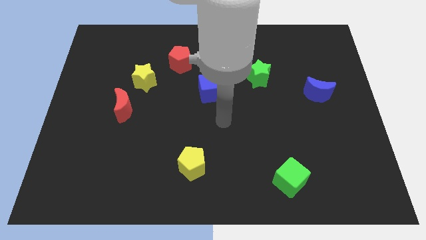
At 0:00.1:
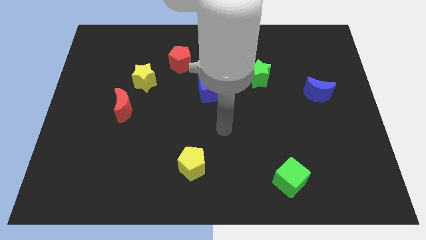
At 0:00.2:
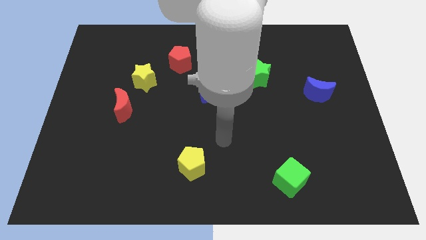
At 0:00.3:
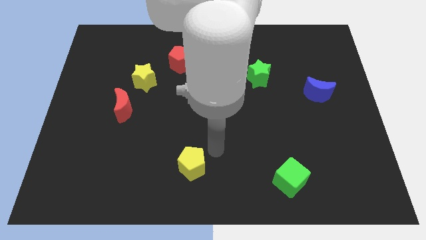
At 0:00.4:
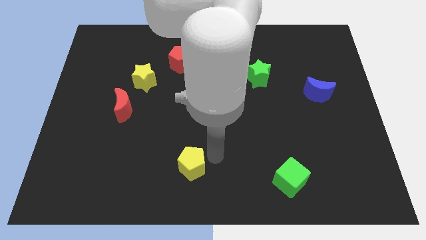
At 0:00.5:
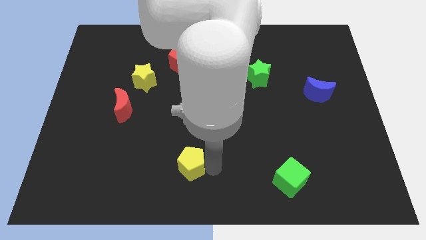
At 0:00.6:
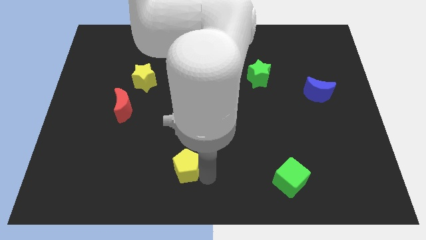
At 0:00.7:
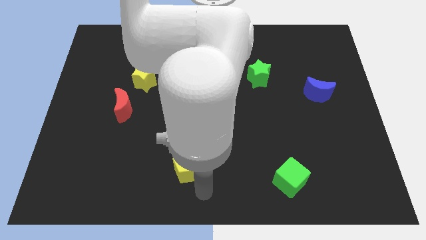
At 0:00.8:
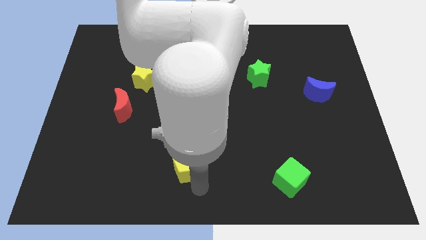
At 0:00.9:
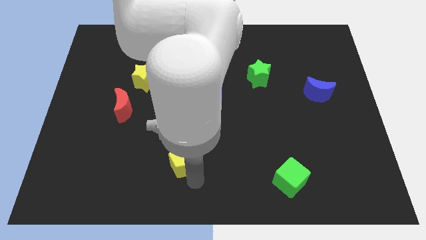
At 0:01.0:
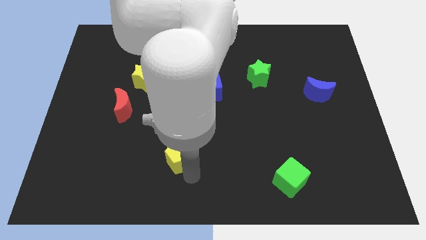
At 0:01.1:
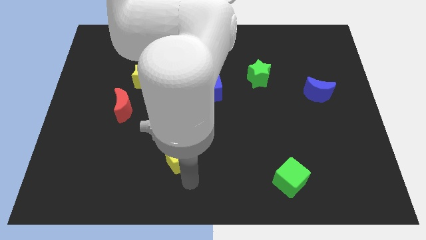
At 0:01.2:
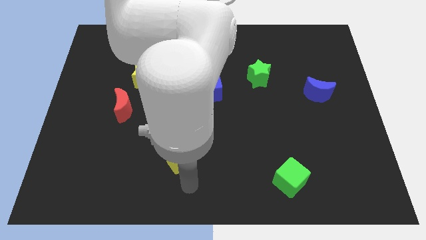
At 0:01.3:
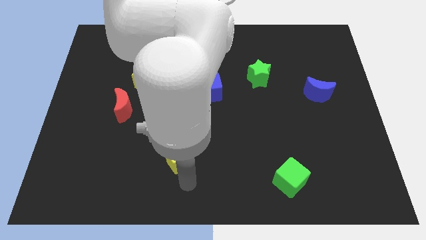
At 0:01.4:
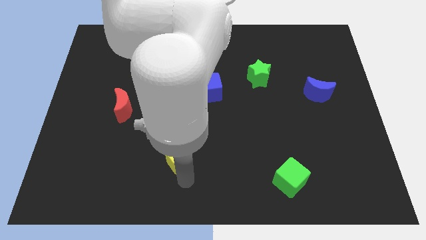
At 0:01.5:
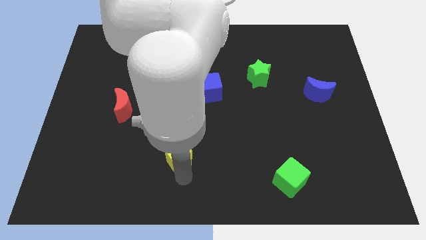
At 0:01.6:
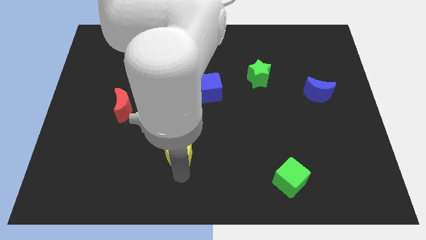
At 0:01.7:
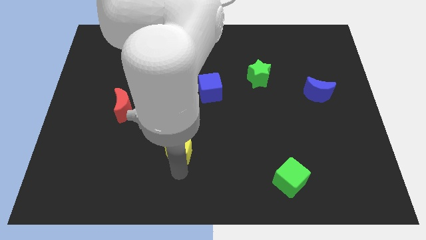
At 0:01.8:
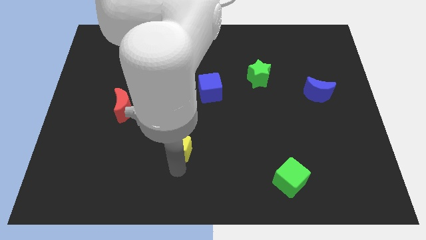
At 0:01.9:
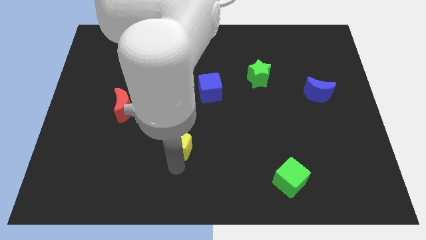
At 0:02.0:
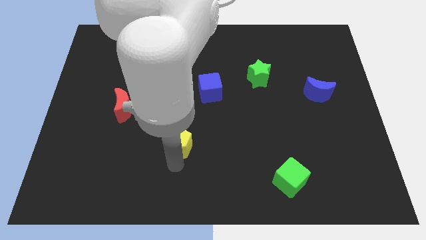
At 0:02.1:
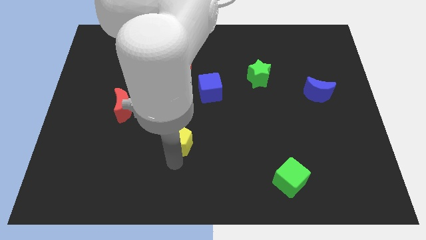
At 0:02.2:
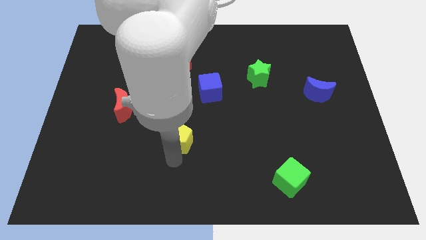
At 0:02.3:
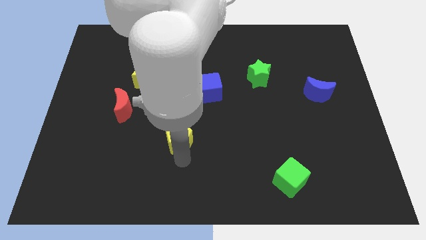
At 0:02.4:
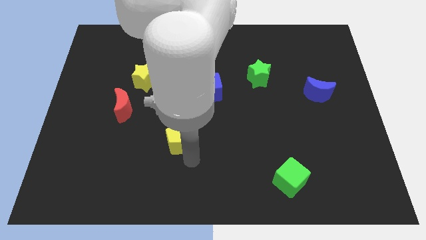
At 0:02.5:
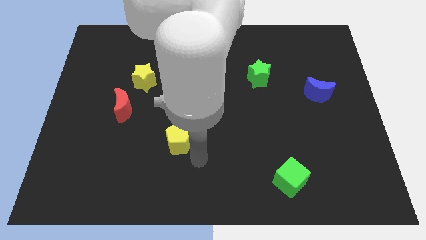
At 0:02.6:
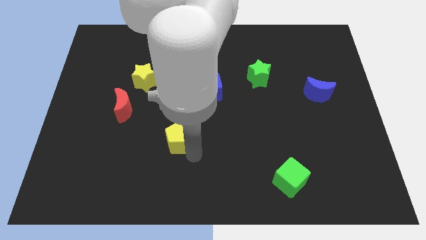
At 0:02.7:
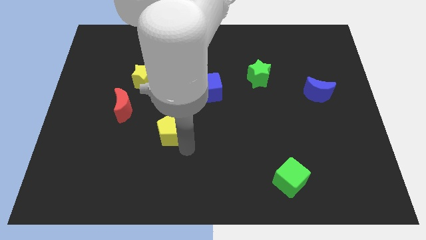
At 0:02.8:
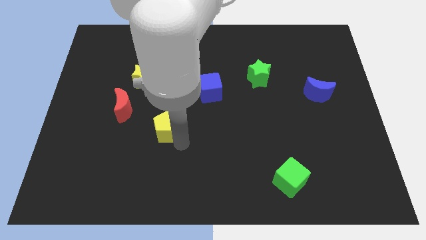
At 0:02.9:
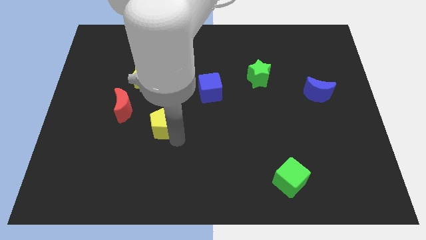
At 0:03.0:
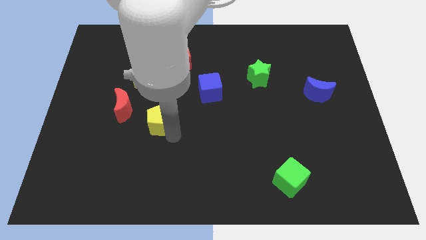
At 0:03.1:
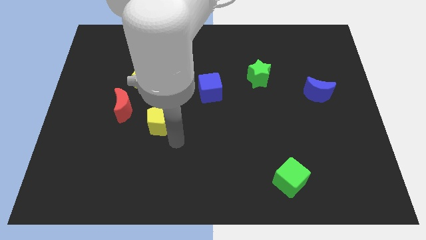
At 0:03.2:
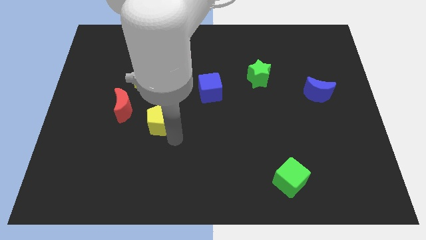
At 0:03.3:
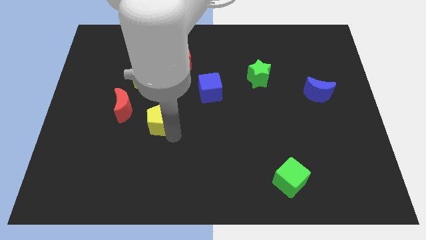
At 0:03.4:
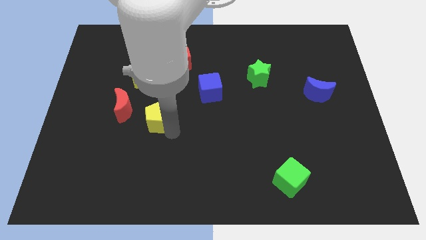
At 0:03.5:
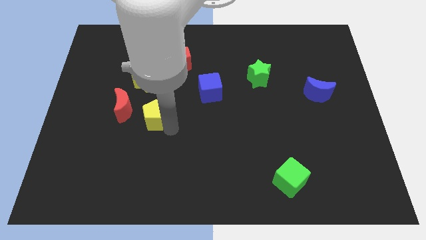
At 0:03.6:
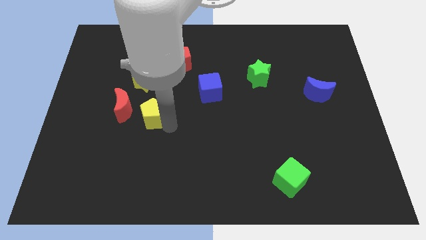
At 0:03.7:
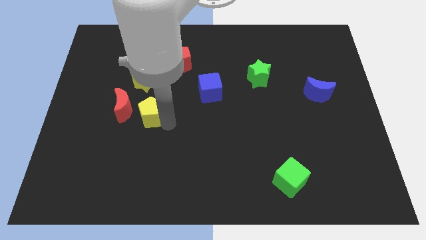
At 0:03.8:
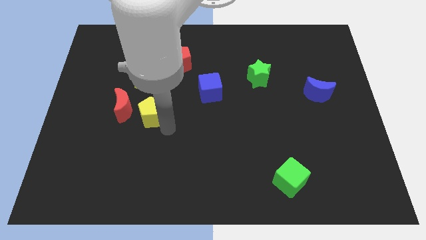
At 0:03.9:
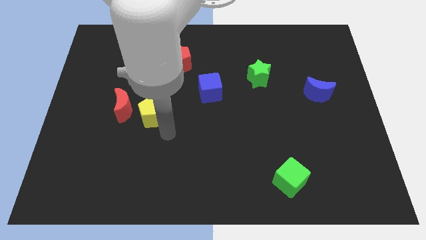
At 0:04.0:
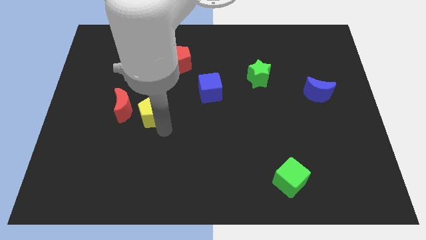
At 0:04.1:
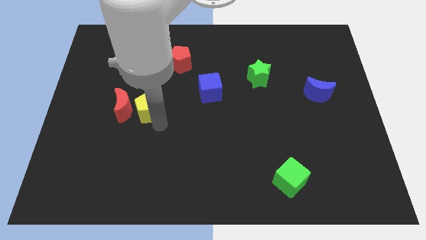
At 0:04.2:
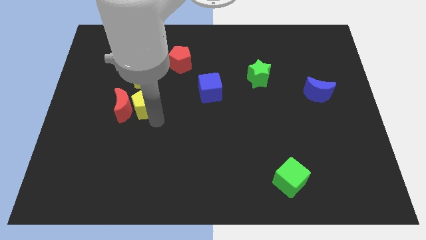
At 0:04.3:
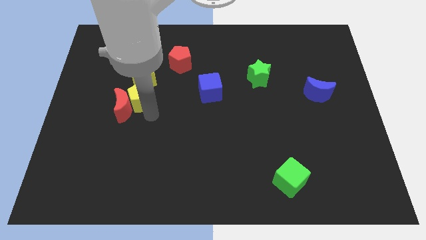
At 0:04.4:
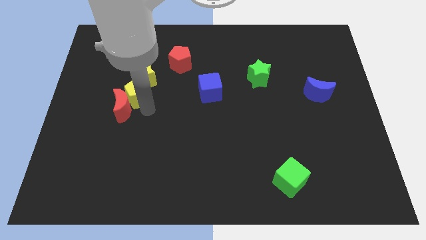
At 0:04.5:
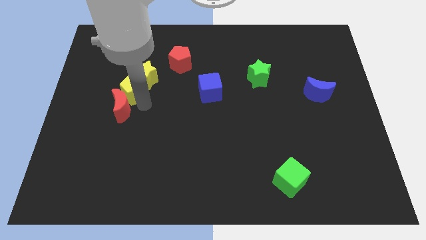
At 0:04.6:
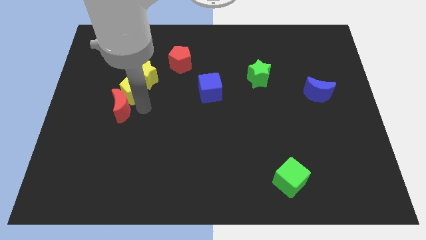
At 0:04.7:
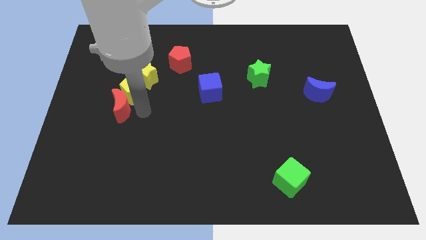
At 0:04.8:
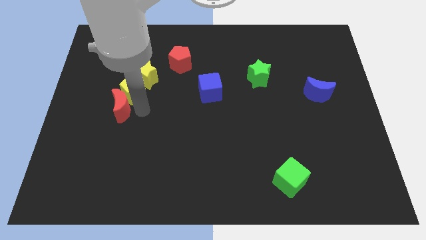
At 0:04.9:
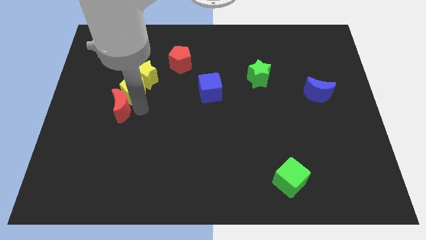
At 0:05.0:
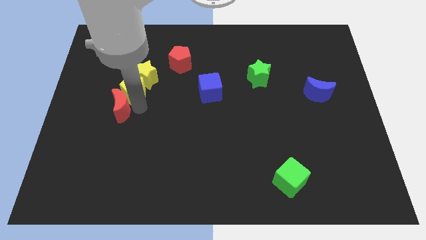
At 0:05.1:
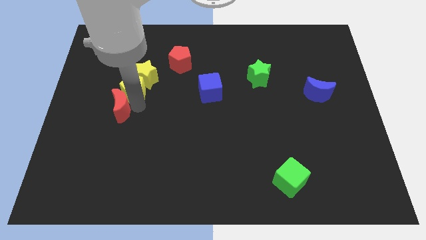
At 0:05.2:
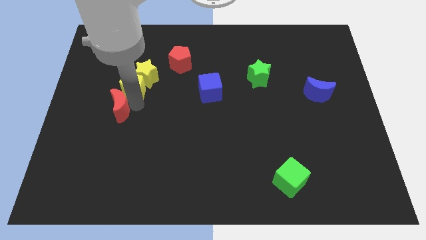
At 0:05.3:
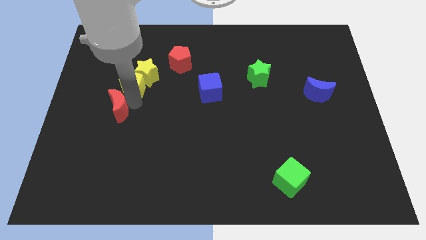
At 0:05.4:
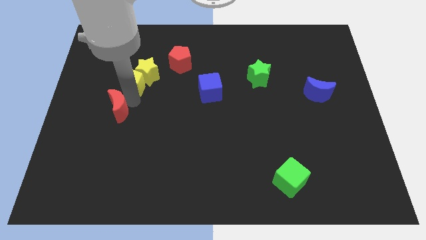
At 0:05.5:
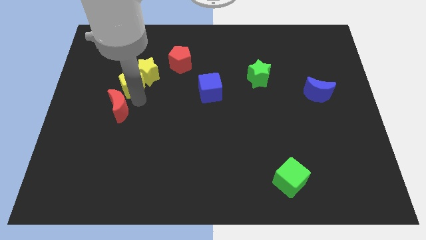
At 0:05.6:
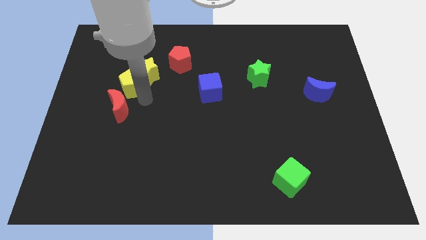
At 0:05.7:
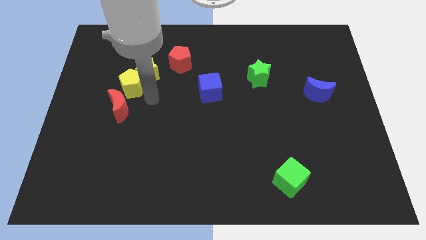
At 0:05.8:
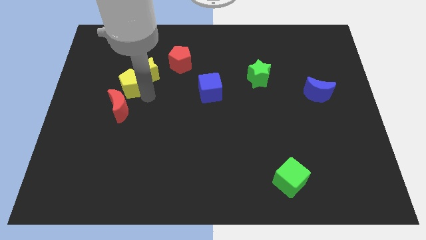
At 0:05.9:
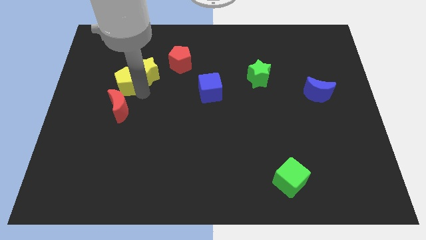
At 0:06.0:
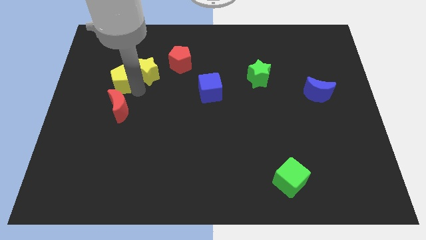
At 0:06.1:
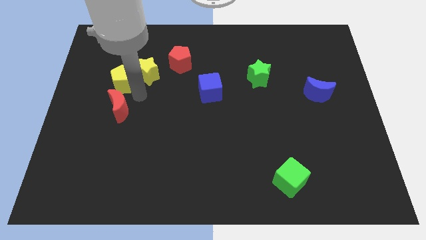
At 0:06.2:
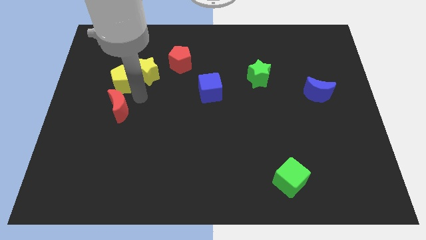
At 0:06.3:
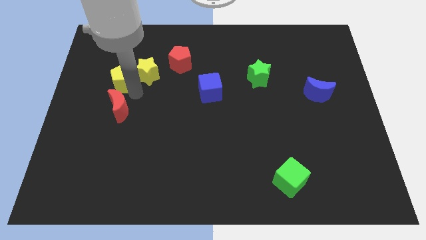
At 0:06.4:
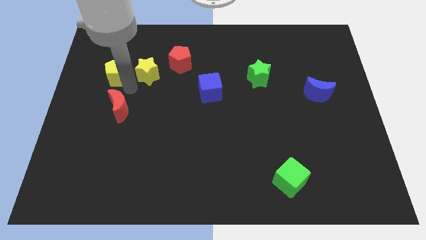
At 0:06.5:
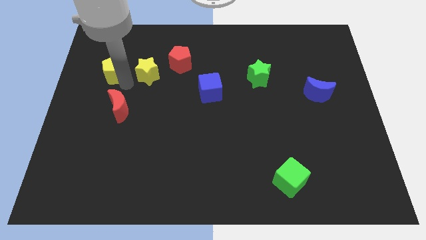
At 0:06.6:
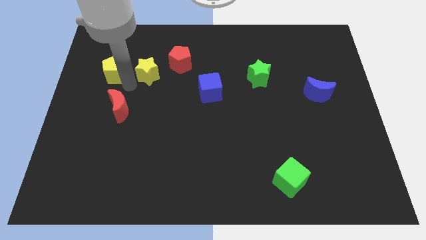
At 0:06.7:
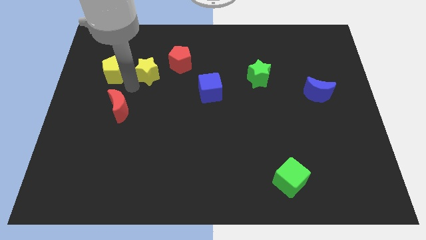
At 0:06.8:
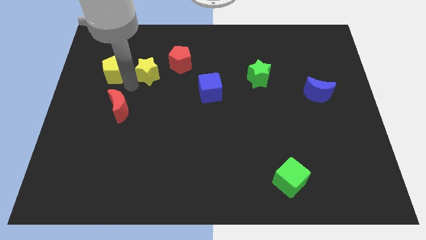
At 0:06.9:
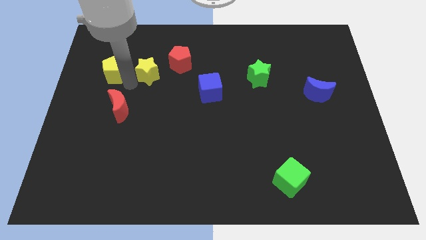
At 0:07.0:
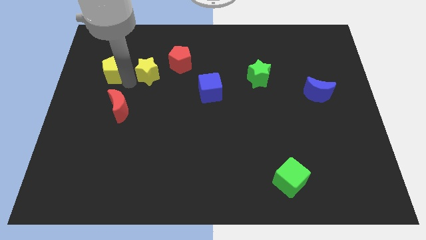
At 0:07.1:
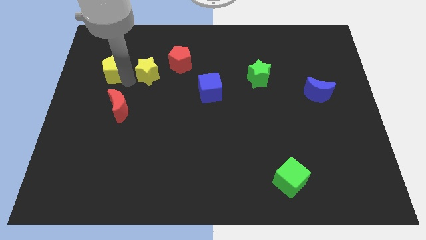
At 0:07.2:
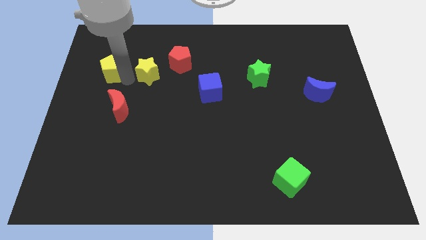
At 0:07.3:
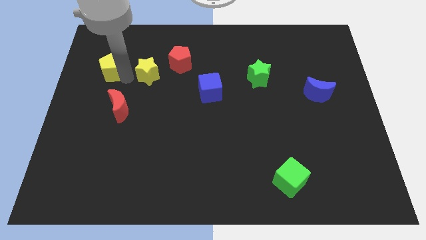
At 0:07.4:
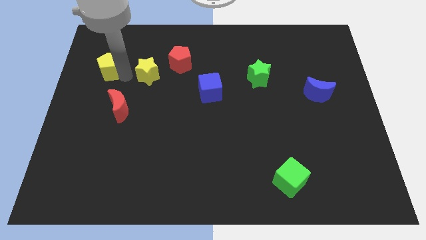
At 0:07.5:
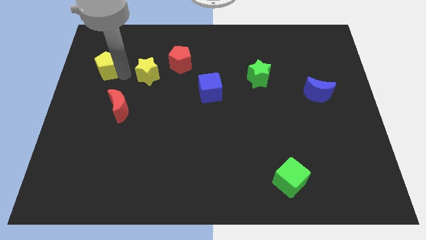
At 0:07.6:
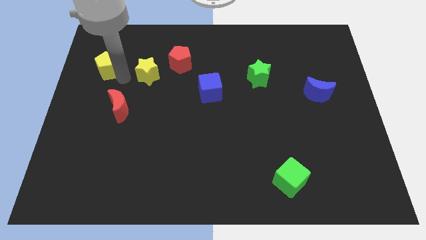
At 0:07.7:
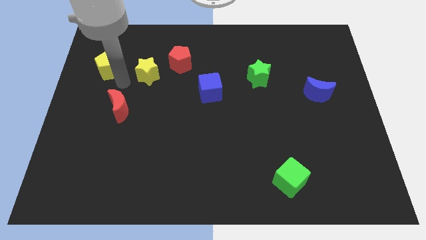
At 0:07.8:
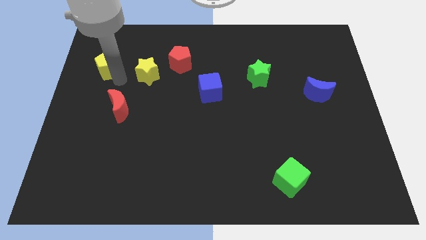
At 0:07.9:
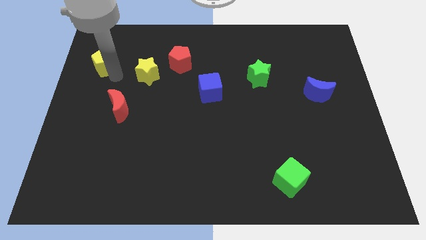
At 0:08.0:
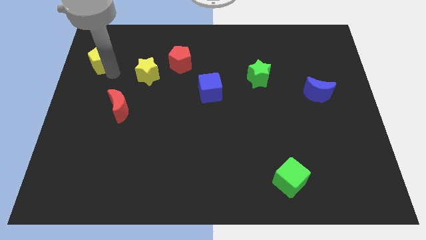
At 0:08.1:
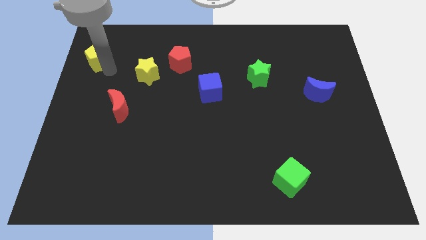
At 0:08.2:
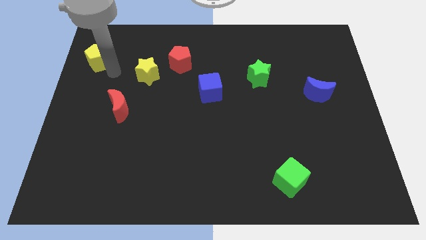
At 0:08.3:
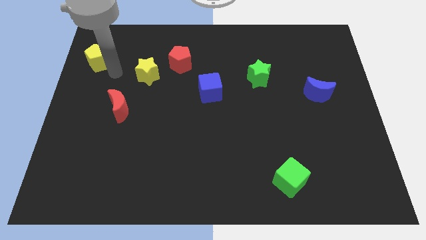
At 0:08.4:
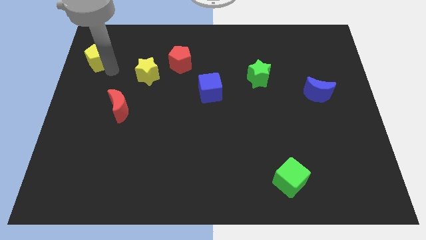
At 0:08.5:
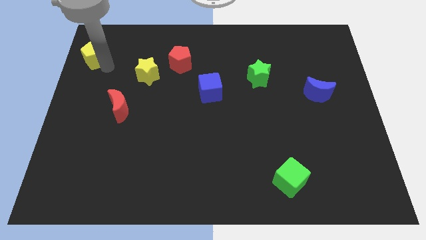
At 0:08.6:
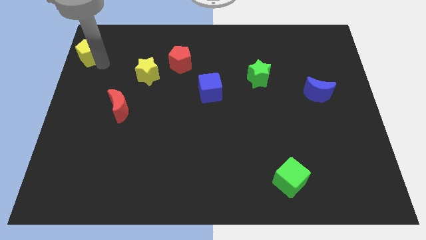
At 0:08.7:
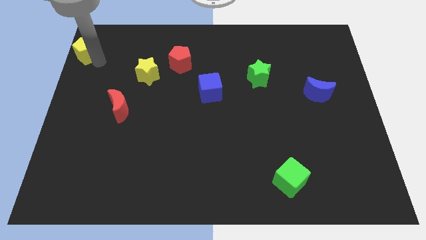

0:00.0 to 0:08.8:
slide the yellow pentagon to the upper left corner
